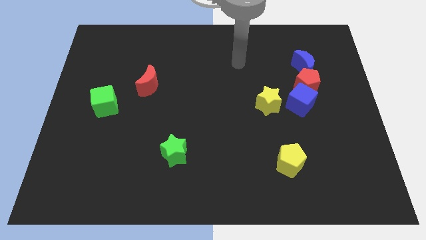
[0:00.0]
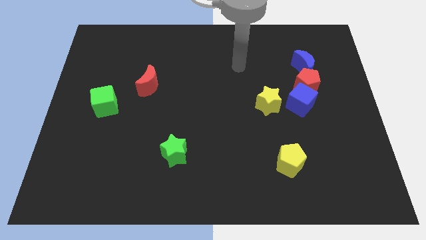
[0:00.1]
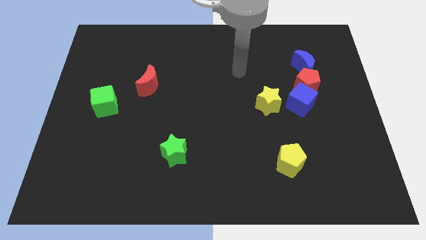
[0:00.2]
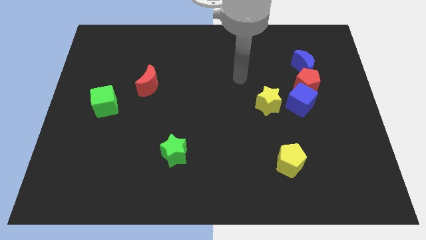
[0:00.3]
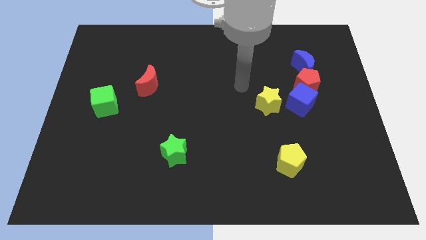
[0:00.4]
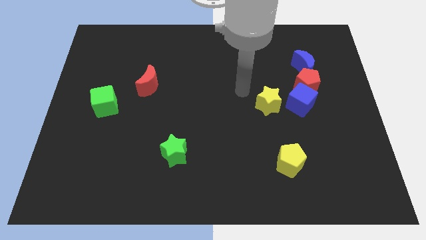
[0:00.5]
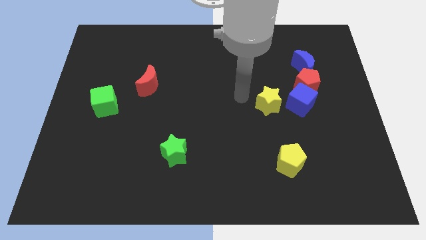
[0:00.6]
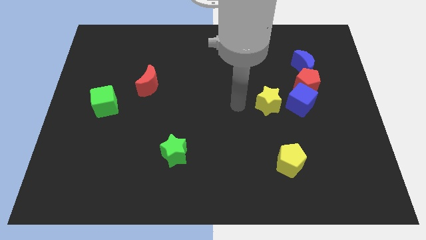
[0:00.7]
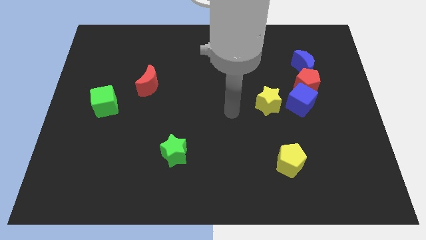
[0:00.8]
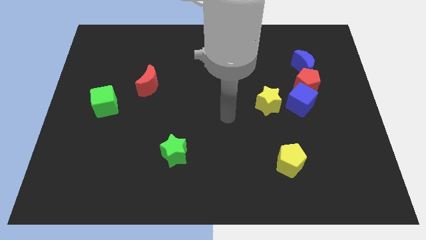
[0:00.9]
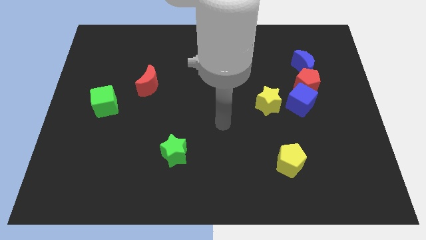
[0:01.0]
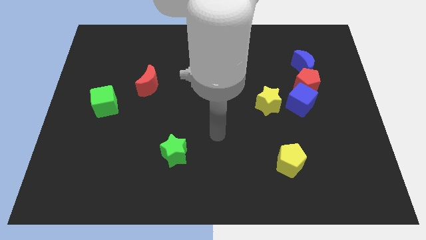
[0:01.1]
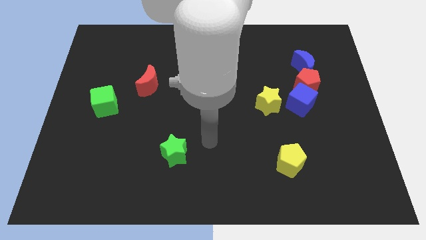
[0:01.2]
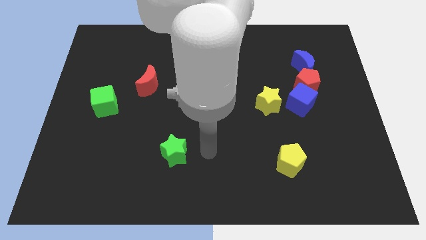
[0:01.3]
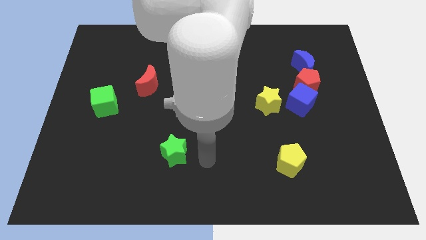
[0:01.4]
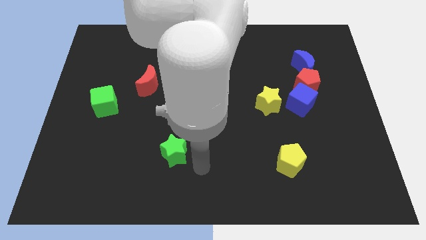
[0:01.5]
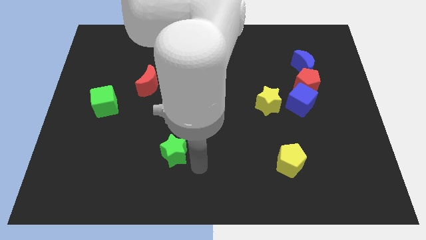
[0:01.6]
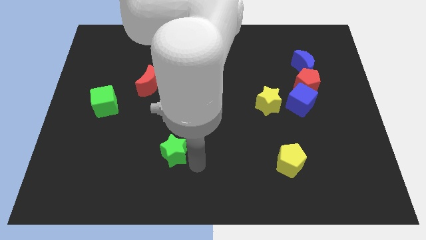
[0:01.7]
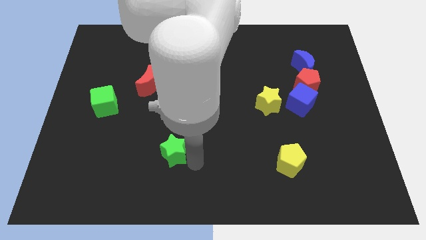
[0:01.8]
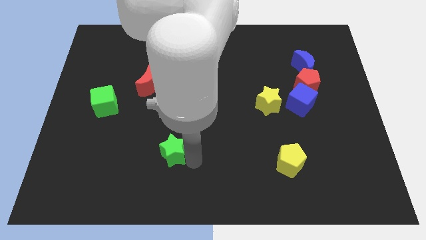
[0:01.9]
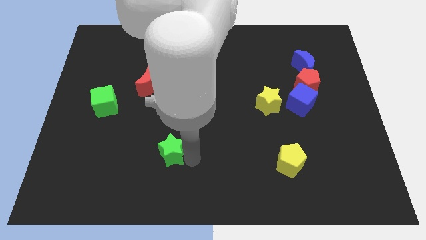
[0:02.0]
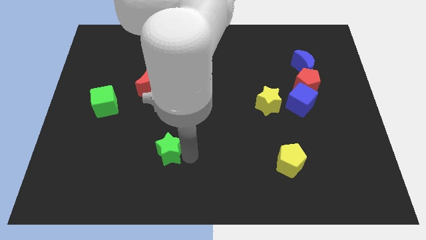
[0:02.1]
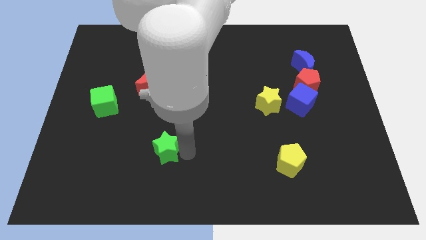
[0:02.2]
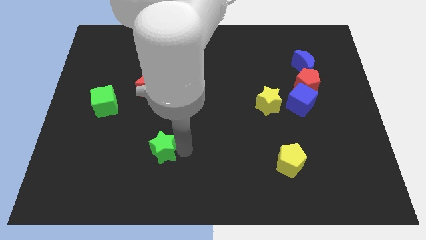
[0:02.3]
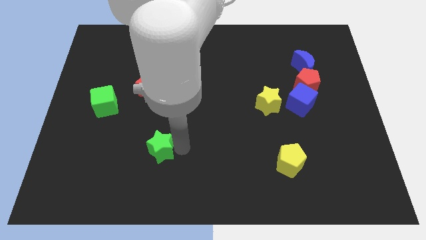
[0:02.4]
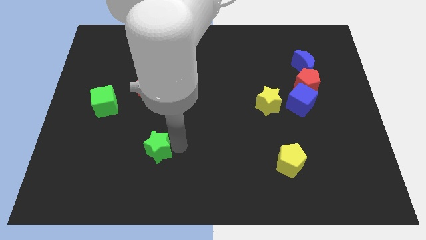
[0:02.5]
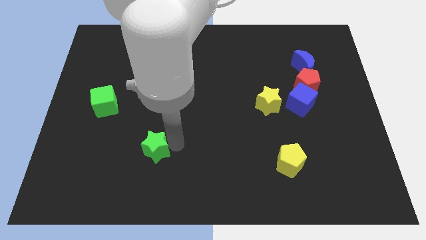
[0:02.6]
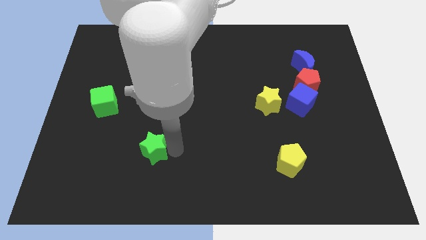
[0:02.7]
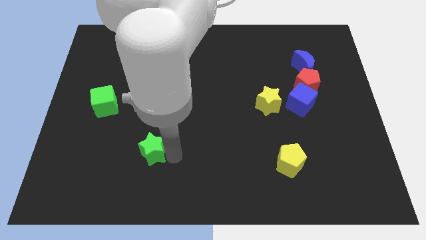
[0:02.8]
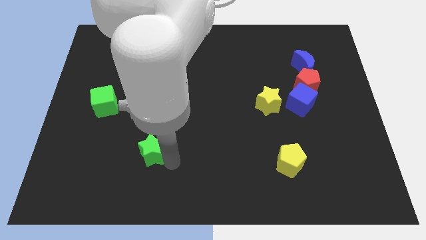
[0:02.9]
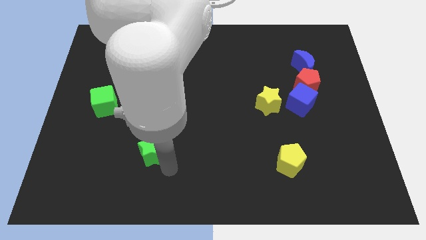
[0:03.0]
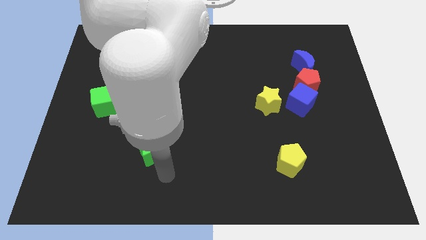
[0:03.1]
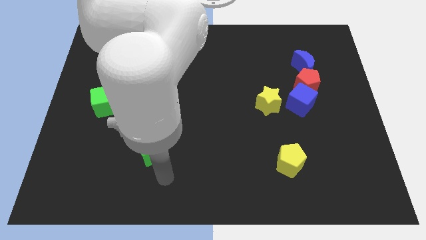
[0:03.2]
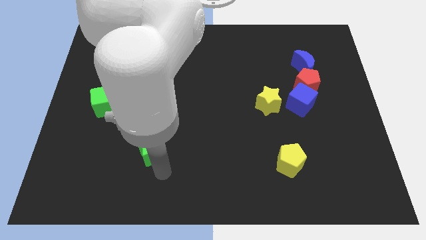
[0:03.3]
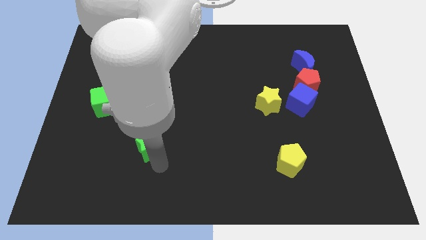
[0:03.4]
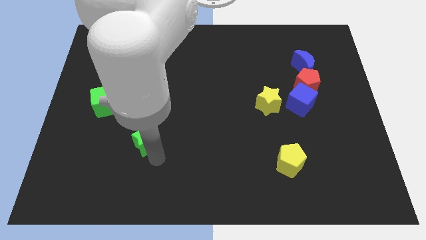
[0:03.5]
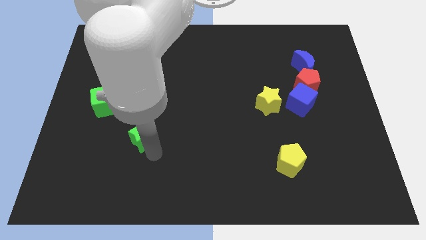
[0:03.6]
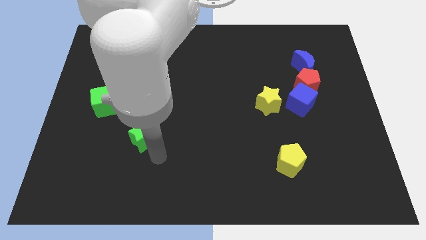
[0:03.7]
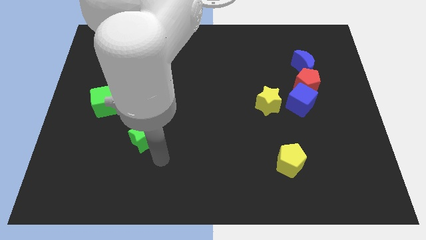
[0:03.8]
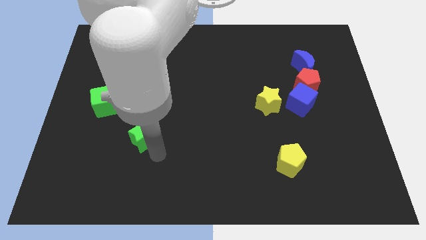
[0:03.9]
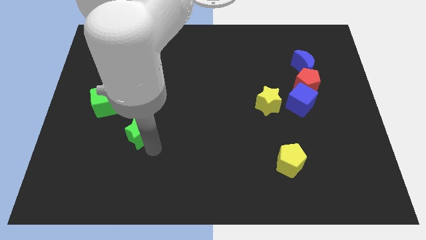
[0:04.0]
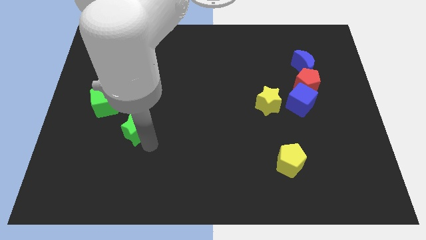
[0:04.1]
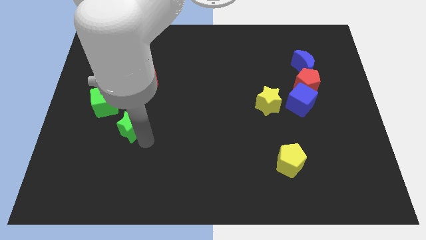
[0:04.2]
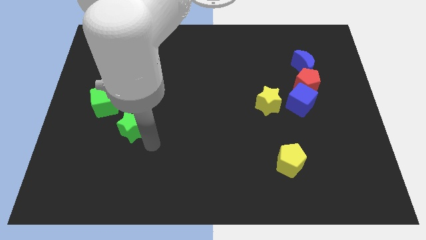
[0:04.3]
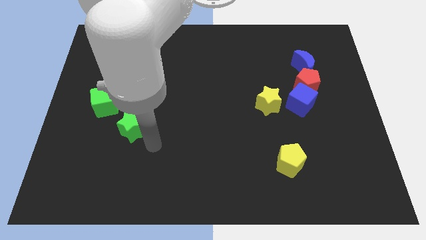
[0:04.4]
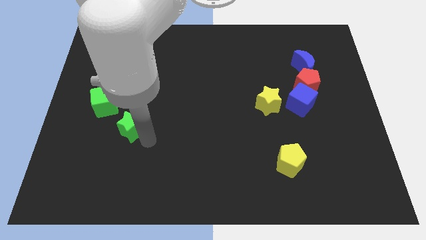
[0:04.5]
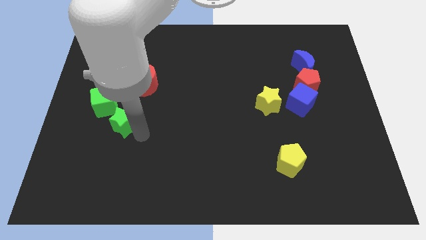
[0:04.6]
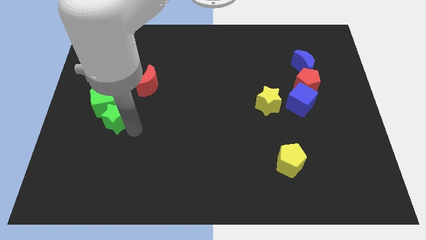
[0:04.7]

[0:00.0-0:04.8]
move the green star to the green cube

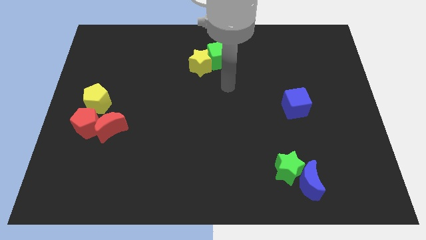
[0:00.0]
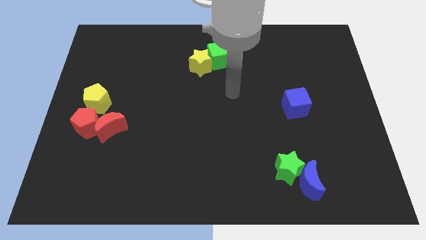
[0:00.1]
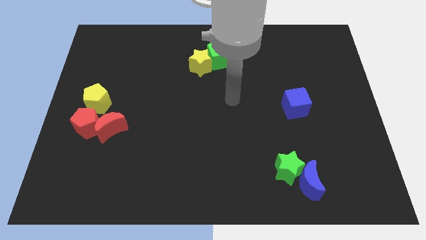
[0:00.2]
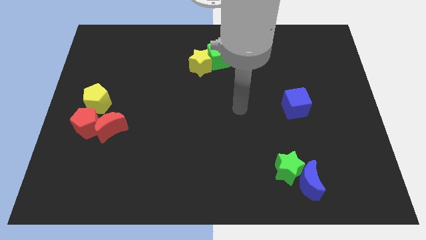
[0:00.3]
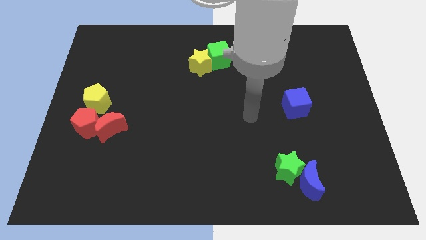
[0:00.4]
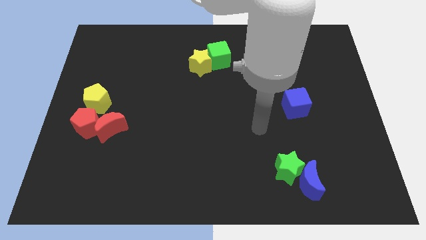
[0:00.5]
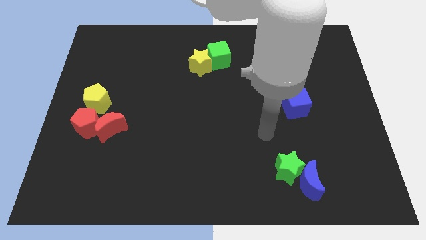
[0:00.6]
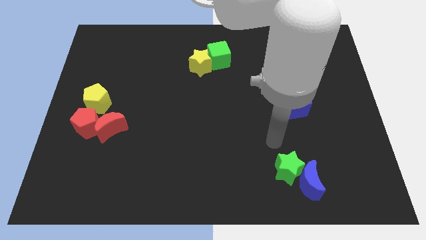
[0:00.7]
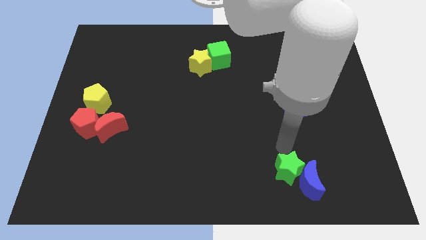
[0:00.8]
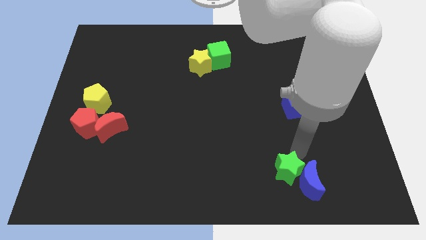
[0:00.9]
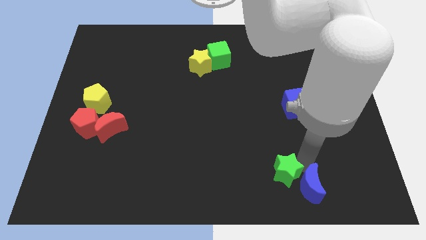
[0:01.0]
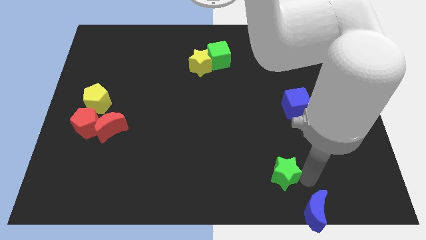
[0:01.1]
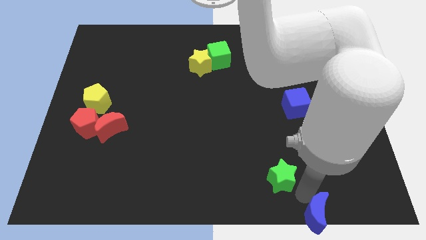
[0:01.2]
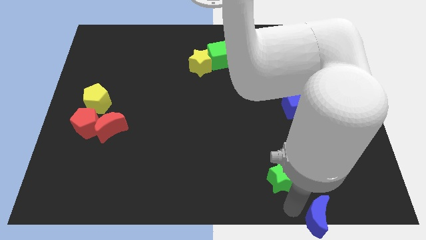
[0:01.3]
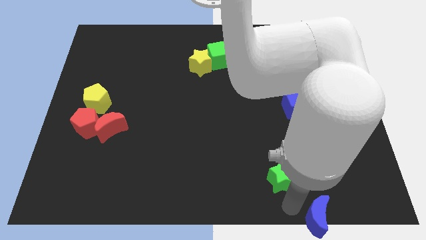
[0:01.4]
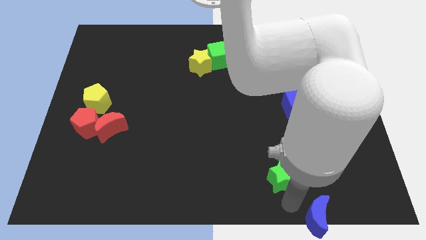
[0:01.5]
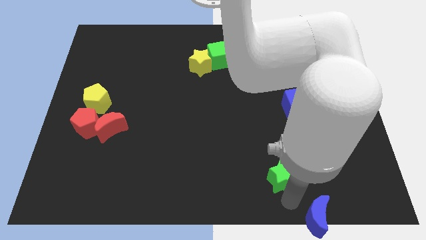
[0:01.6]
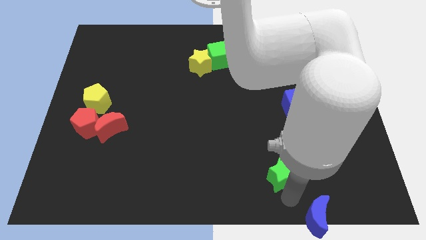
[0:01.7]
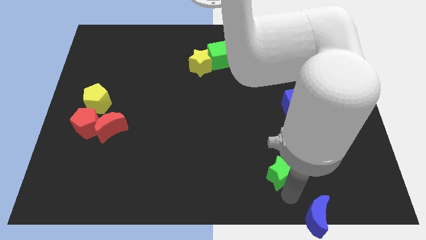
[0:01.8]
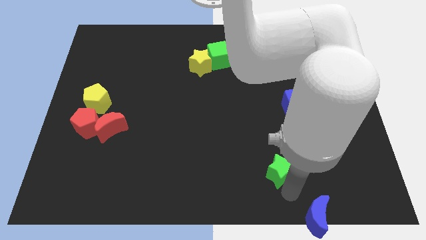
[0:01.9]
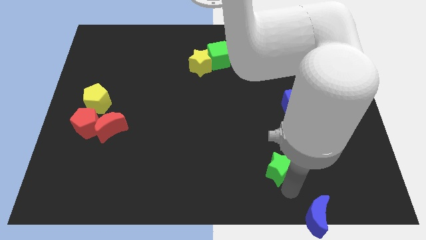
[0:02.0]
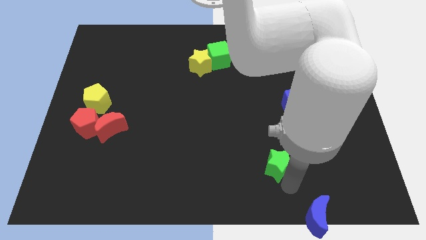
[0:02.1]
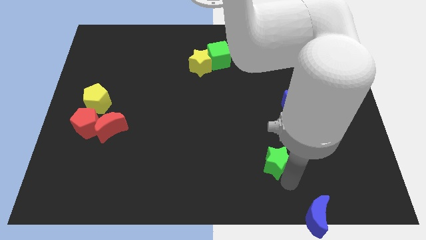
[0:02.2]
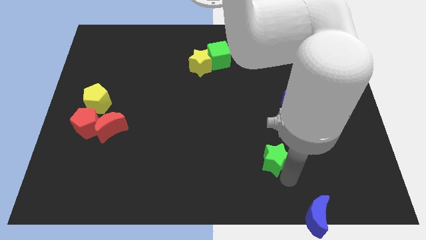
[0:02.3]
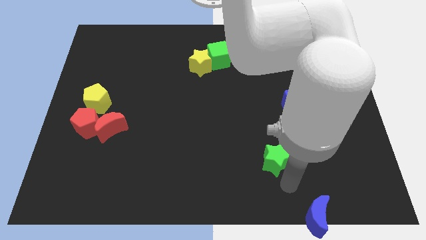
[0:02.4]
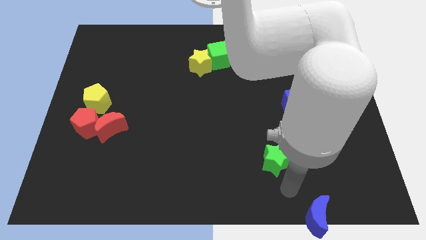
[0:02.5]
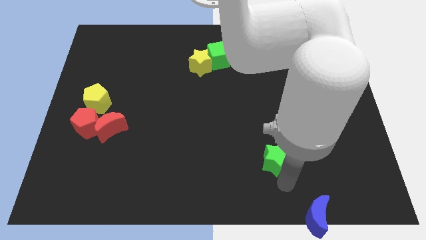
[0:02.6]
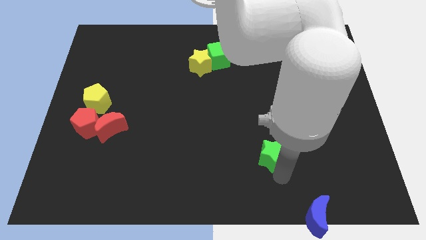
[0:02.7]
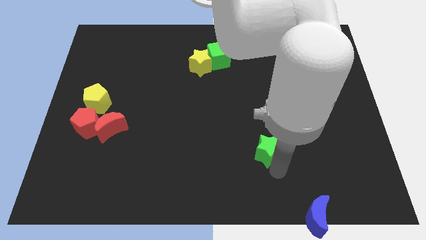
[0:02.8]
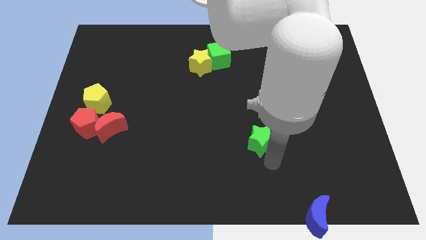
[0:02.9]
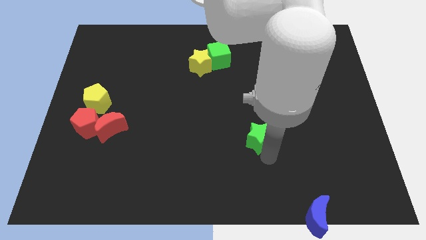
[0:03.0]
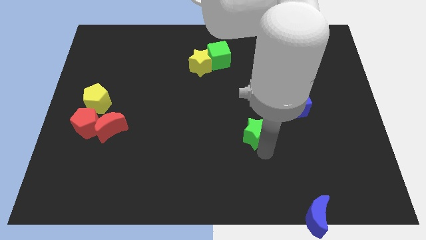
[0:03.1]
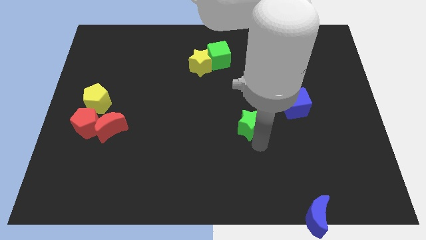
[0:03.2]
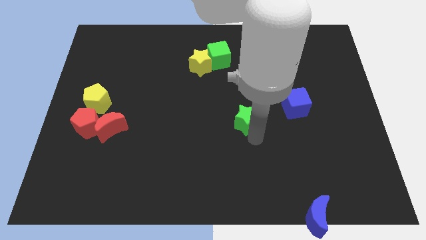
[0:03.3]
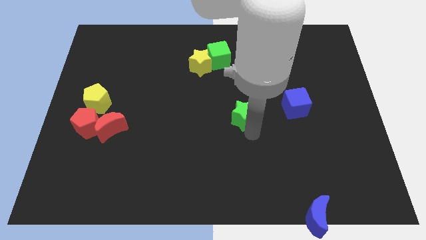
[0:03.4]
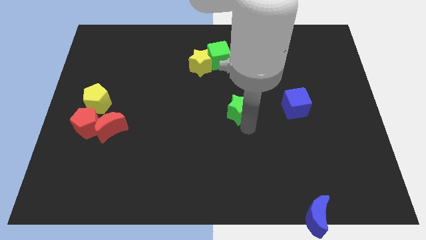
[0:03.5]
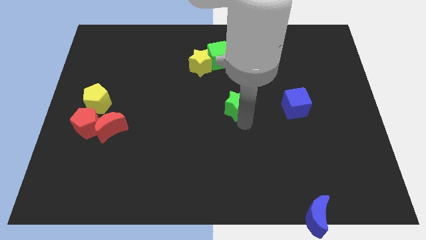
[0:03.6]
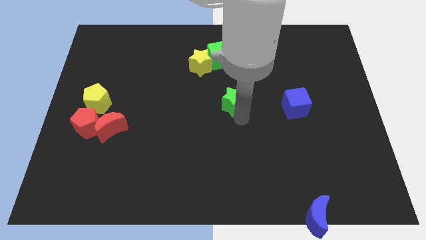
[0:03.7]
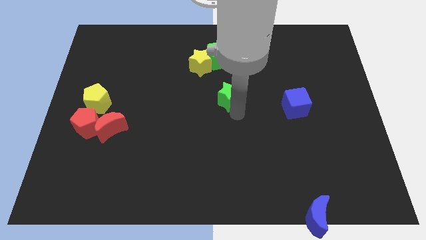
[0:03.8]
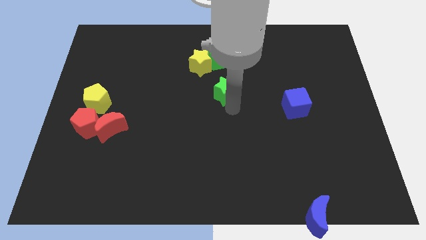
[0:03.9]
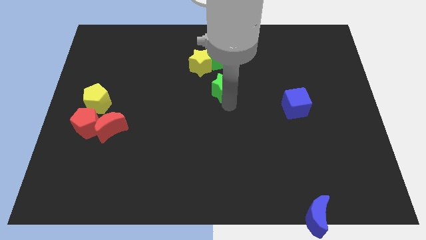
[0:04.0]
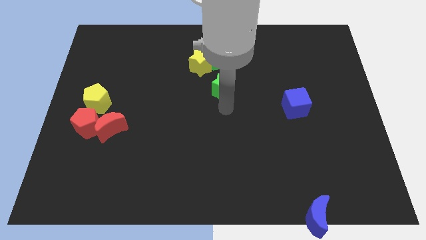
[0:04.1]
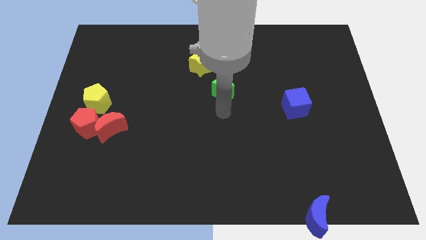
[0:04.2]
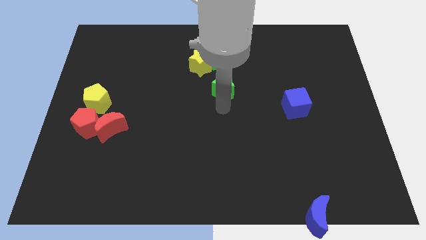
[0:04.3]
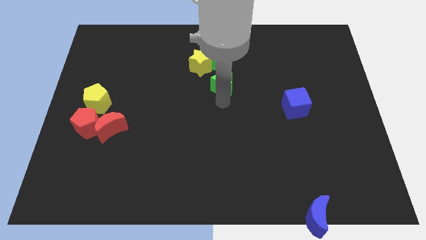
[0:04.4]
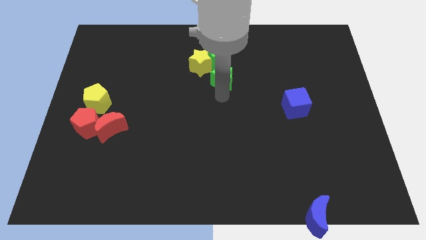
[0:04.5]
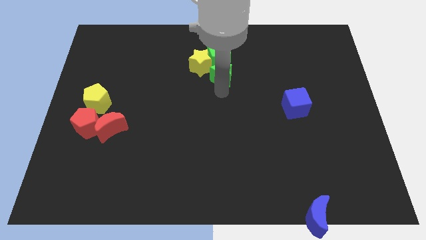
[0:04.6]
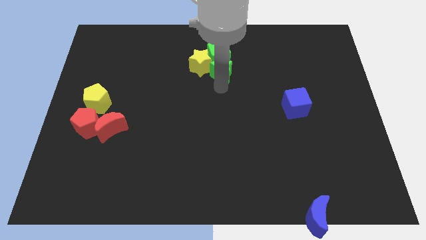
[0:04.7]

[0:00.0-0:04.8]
put the green star close to the green cube
